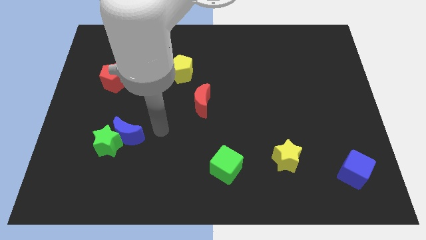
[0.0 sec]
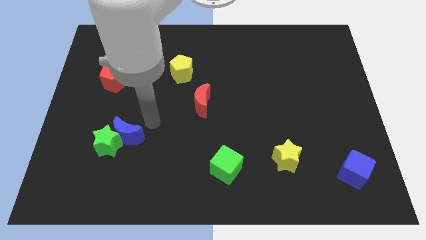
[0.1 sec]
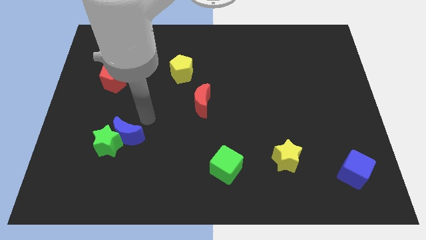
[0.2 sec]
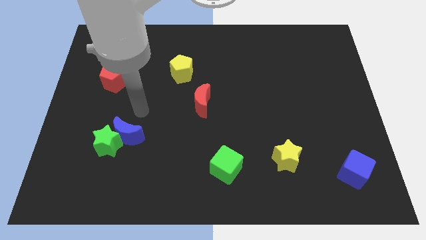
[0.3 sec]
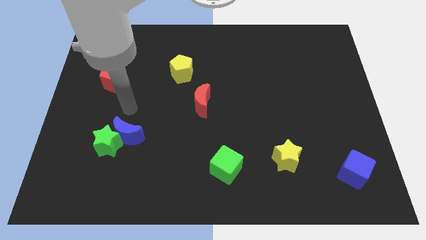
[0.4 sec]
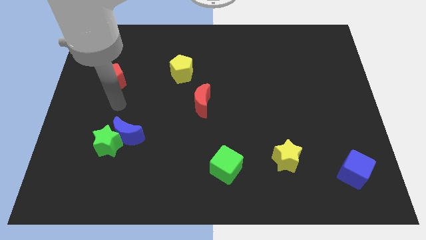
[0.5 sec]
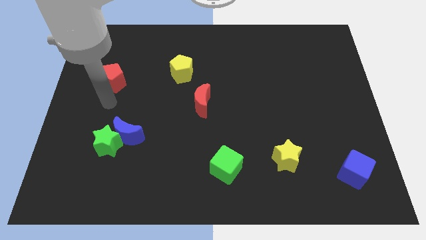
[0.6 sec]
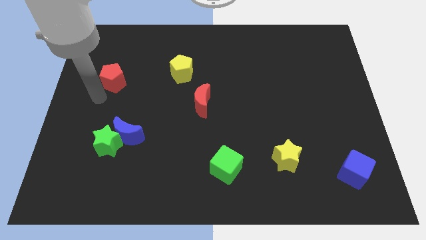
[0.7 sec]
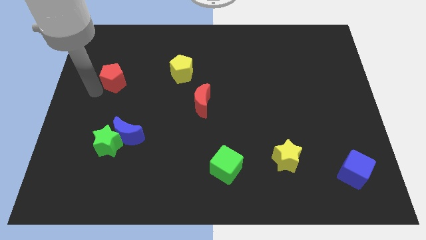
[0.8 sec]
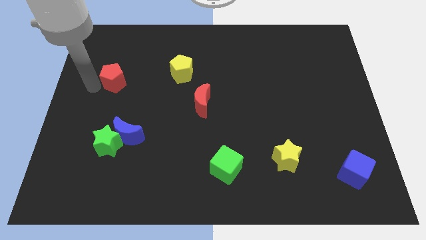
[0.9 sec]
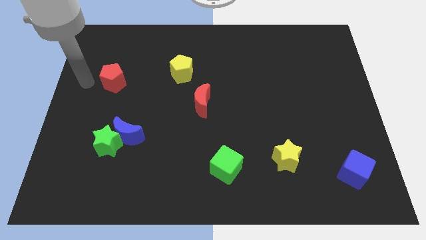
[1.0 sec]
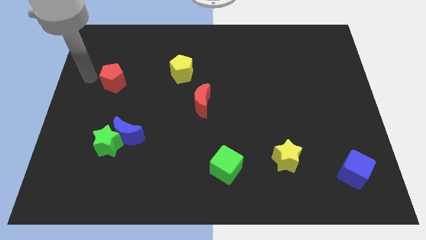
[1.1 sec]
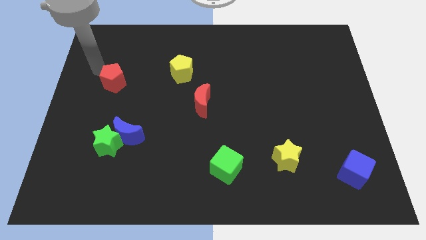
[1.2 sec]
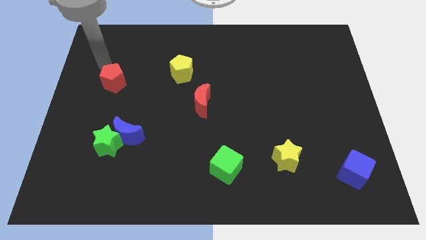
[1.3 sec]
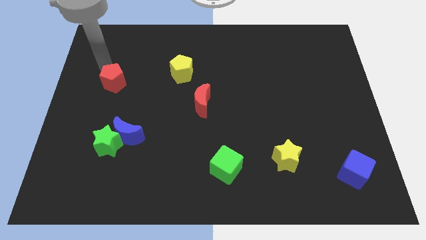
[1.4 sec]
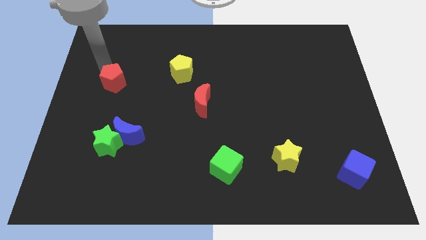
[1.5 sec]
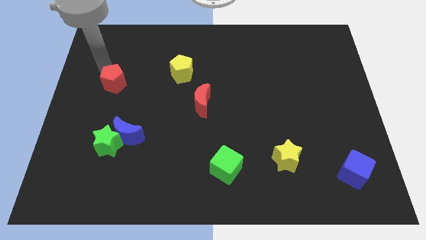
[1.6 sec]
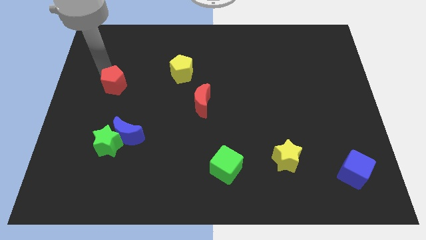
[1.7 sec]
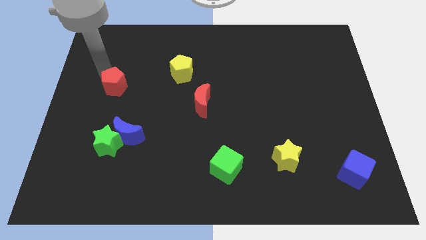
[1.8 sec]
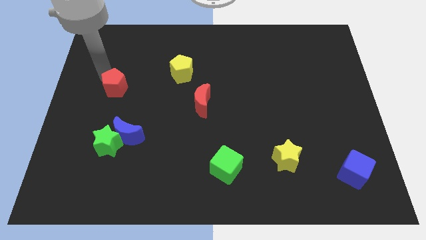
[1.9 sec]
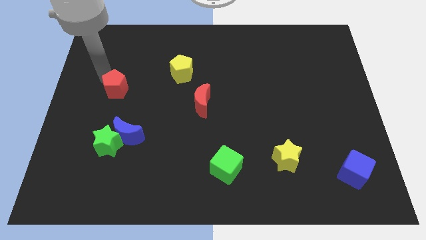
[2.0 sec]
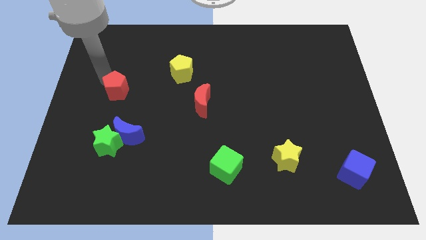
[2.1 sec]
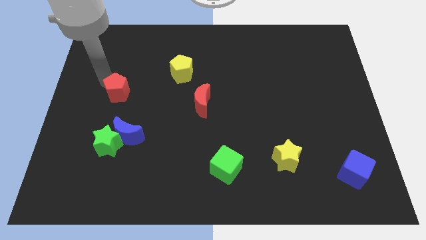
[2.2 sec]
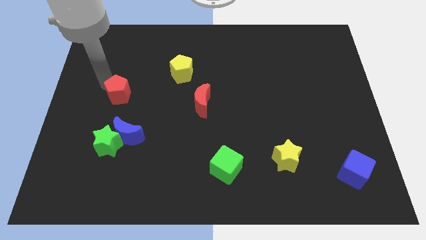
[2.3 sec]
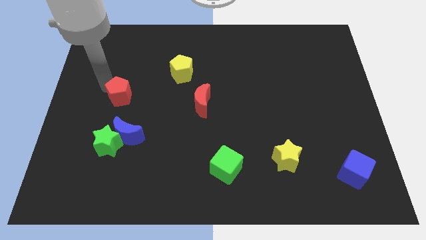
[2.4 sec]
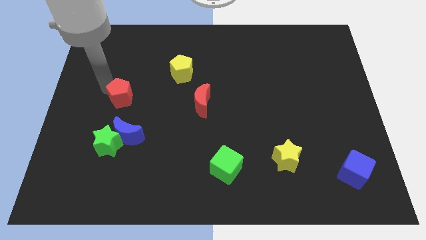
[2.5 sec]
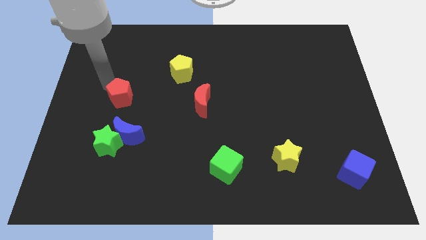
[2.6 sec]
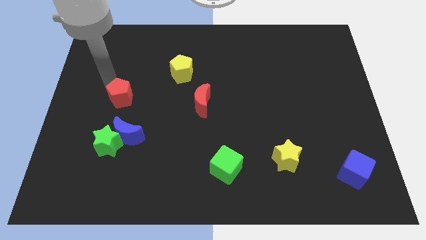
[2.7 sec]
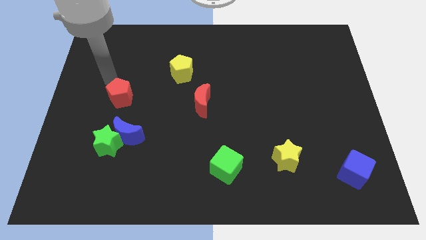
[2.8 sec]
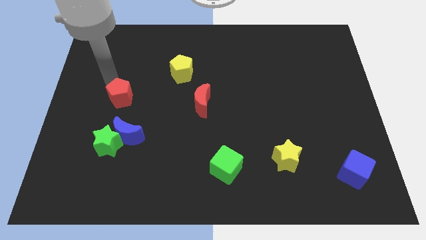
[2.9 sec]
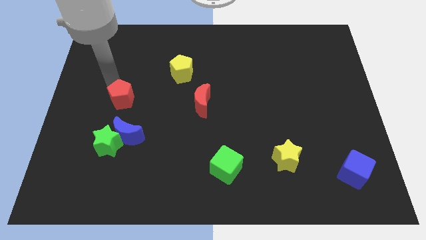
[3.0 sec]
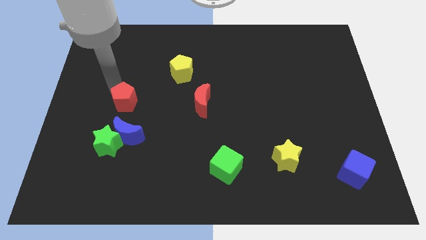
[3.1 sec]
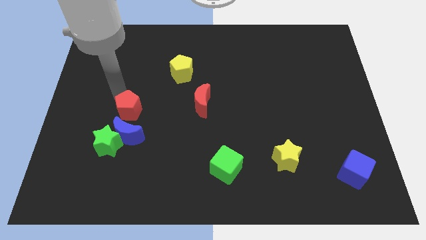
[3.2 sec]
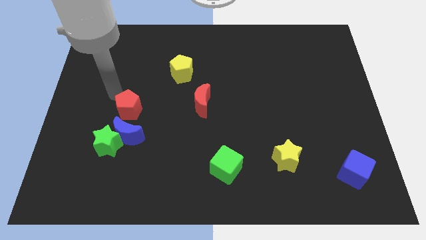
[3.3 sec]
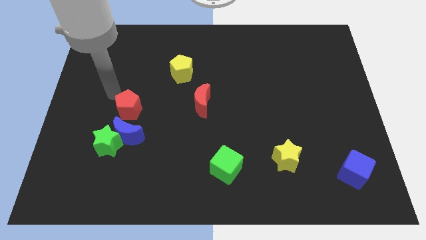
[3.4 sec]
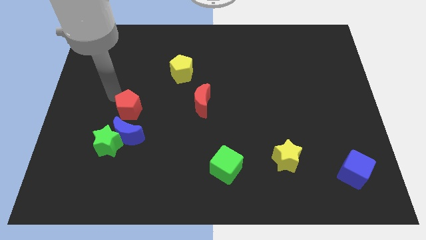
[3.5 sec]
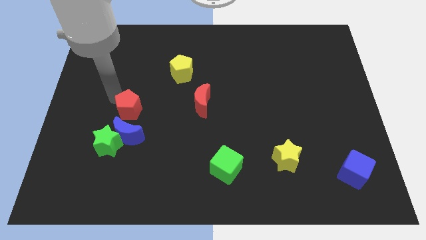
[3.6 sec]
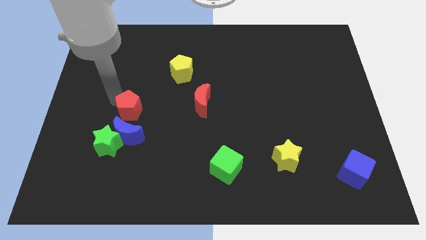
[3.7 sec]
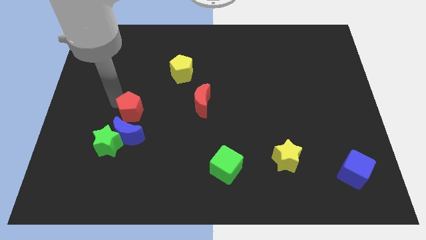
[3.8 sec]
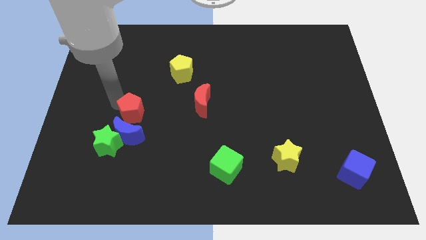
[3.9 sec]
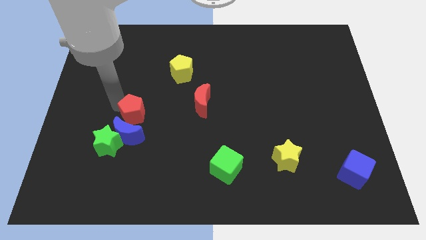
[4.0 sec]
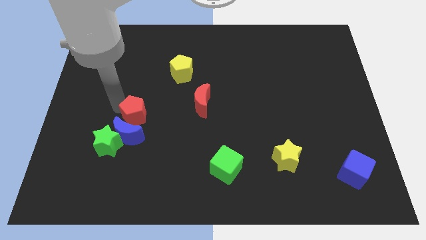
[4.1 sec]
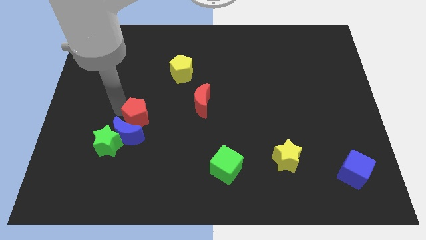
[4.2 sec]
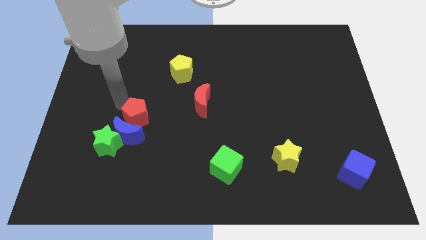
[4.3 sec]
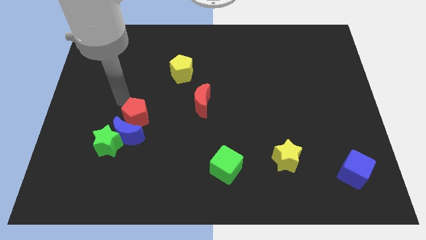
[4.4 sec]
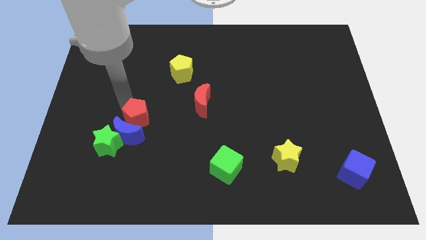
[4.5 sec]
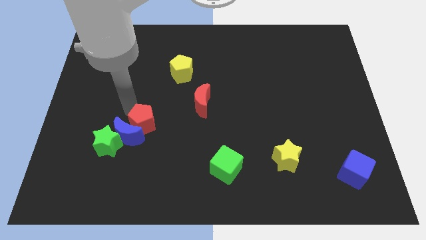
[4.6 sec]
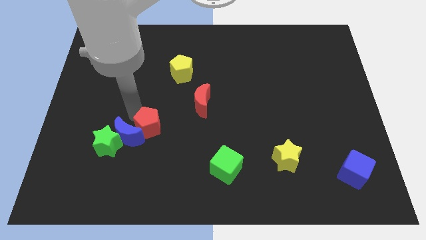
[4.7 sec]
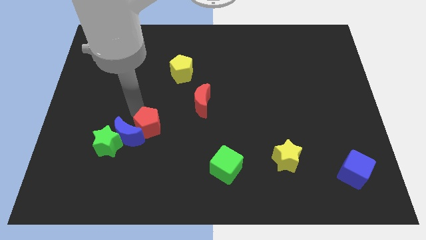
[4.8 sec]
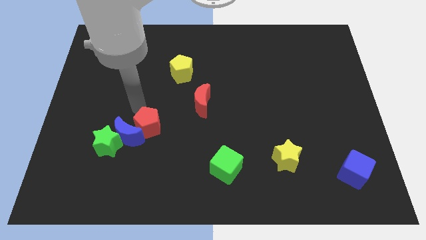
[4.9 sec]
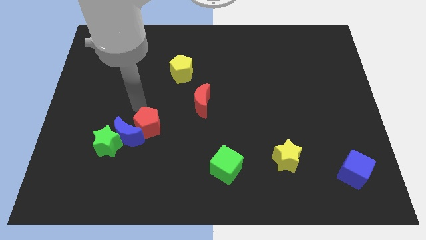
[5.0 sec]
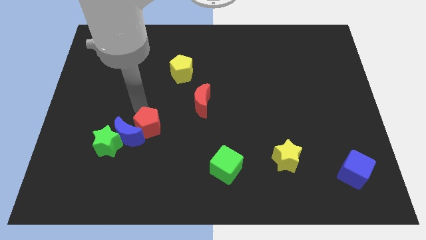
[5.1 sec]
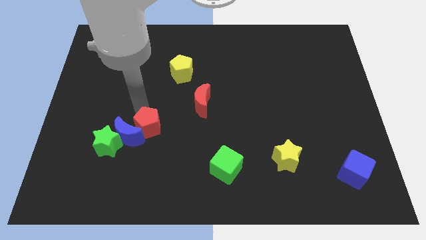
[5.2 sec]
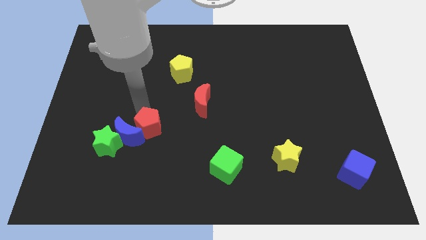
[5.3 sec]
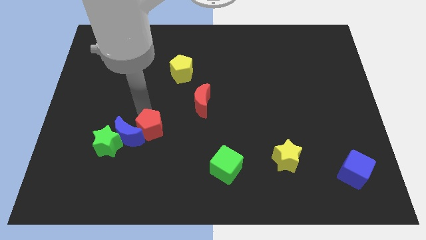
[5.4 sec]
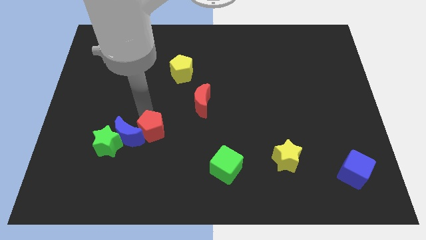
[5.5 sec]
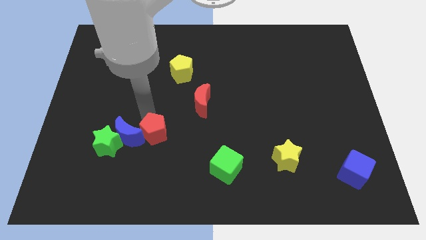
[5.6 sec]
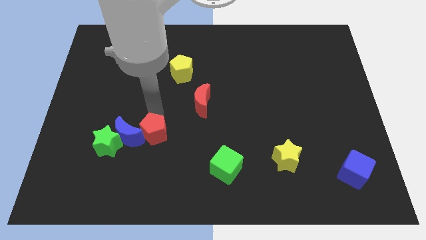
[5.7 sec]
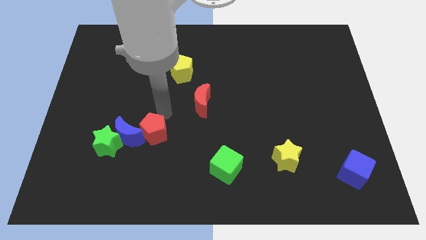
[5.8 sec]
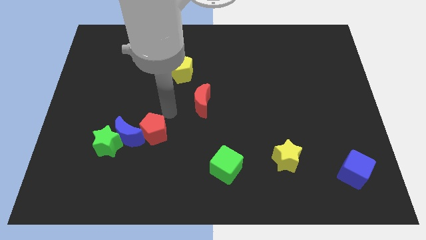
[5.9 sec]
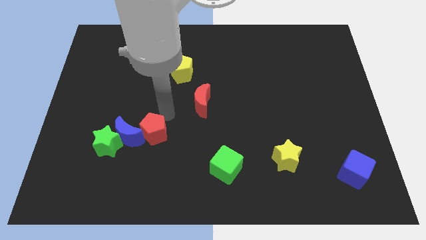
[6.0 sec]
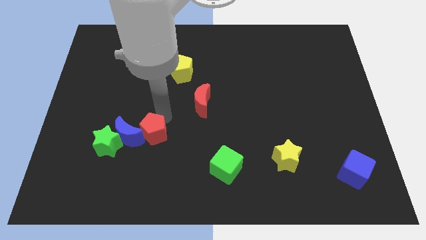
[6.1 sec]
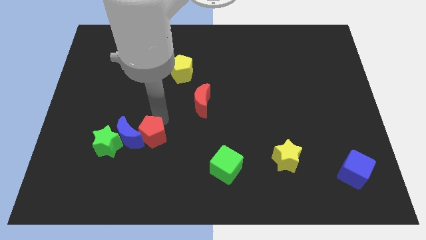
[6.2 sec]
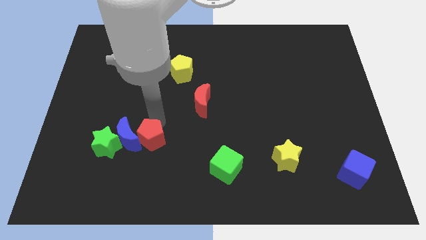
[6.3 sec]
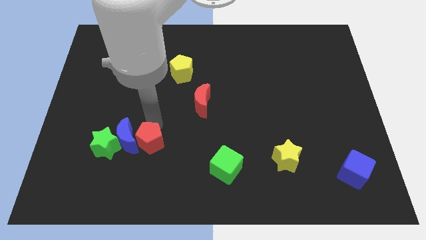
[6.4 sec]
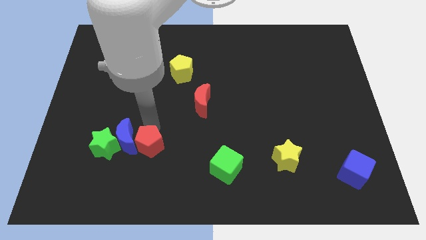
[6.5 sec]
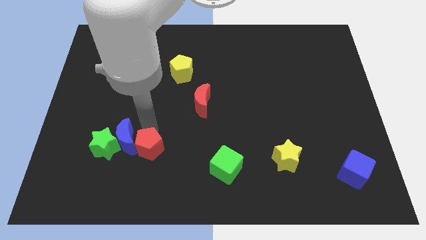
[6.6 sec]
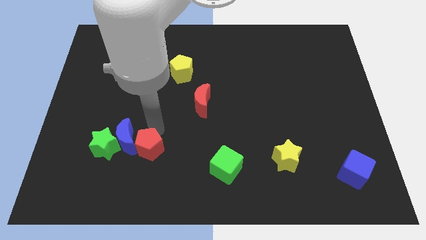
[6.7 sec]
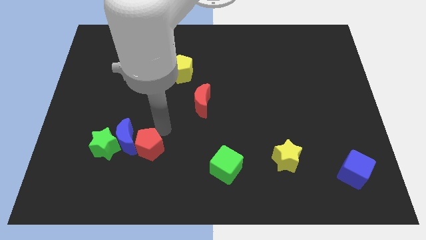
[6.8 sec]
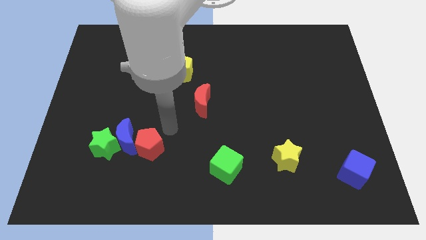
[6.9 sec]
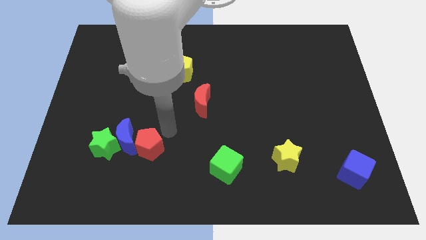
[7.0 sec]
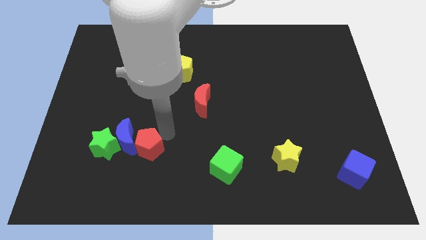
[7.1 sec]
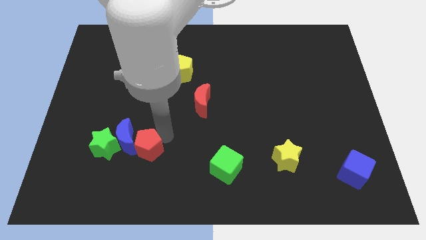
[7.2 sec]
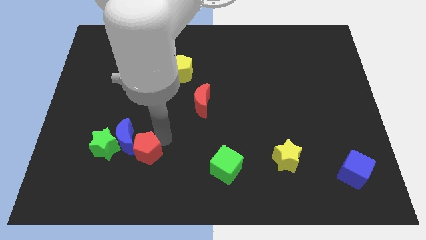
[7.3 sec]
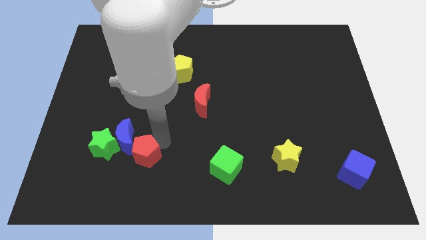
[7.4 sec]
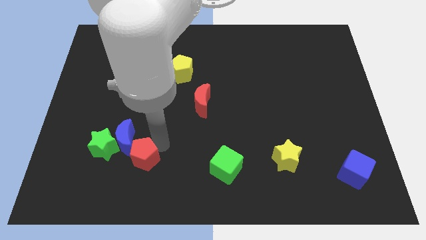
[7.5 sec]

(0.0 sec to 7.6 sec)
slide the red pentagon diagonally down and to the right of the green star
